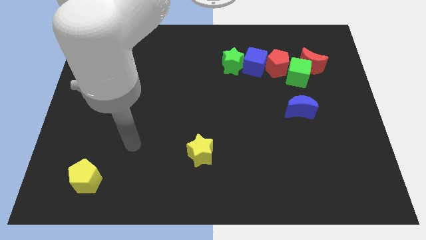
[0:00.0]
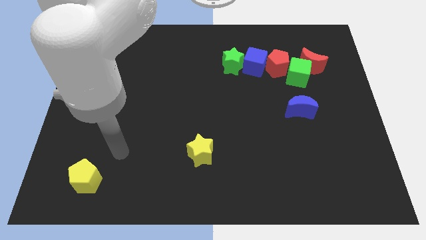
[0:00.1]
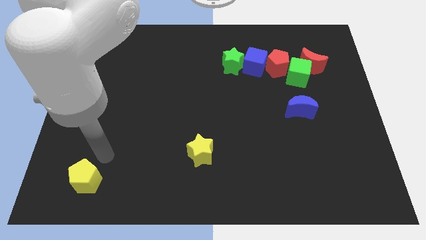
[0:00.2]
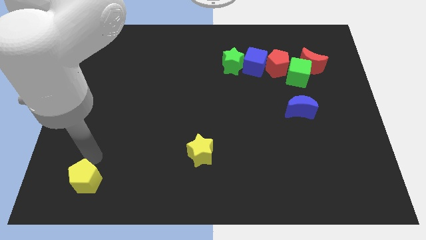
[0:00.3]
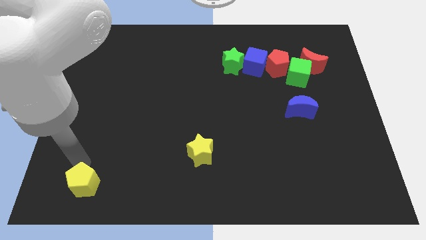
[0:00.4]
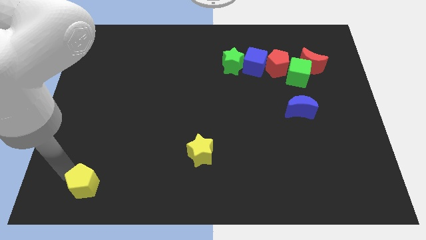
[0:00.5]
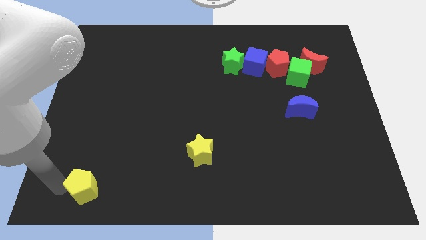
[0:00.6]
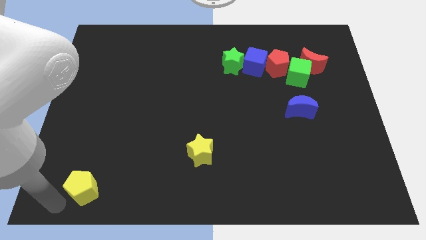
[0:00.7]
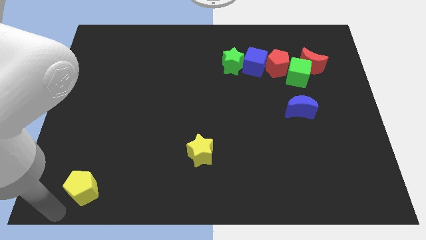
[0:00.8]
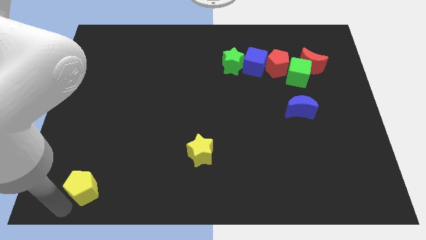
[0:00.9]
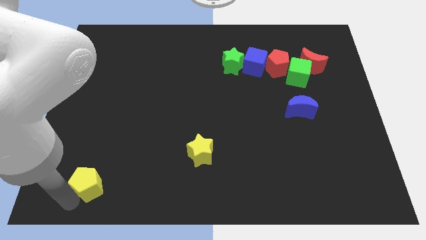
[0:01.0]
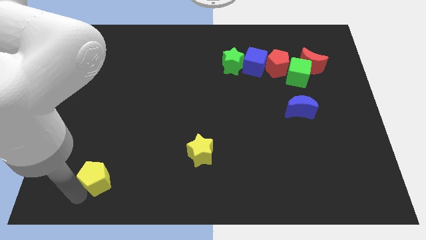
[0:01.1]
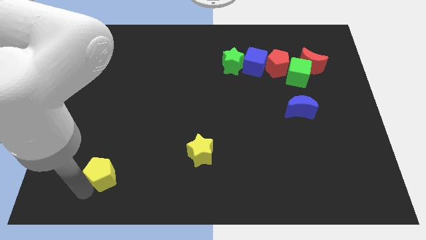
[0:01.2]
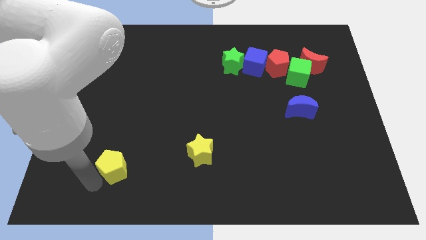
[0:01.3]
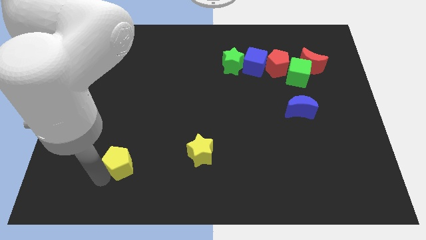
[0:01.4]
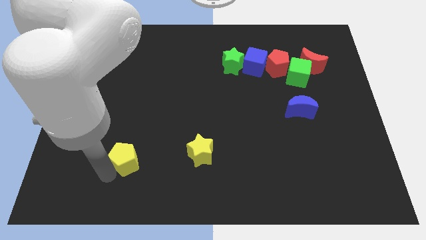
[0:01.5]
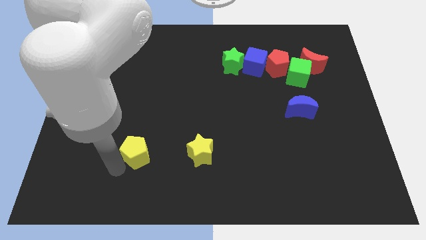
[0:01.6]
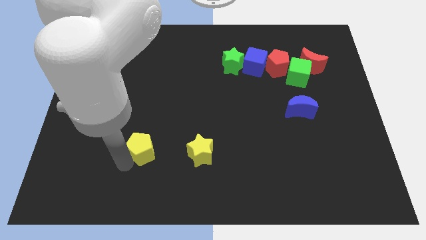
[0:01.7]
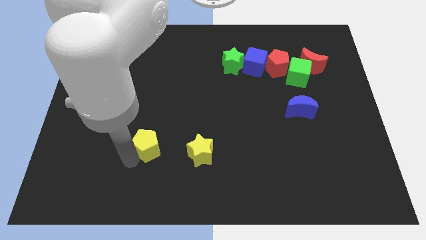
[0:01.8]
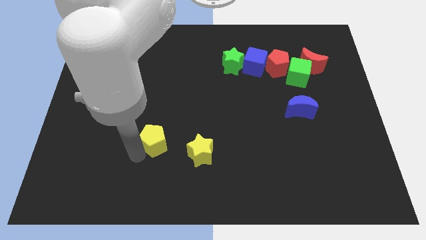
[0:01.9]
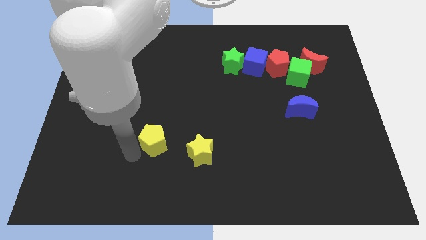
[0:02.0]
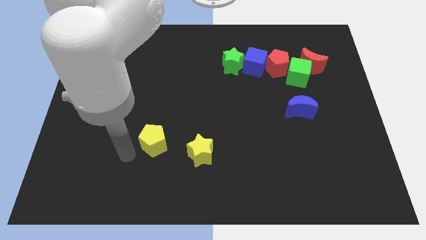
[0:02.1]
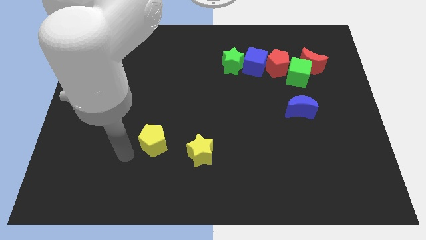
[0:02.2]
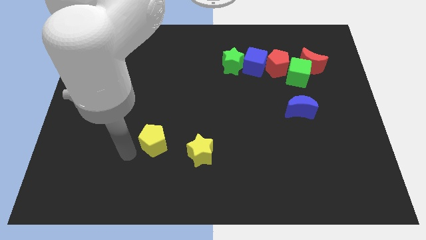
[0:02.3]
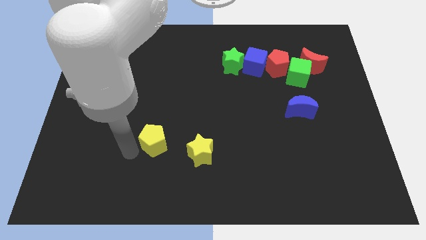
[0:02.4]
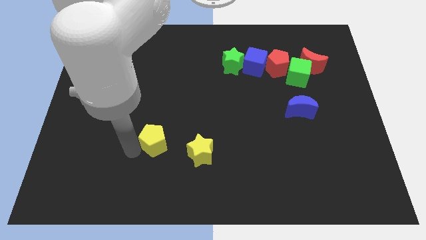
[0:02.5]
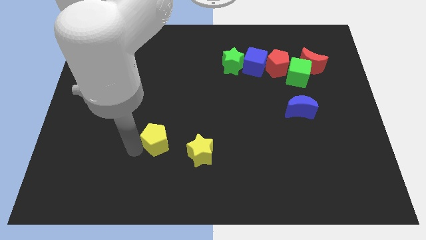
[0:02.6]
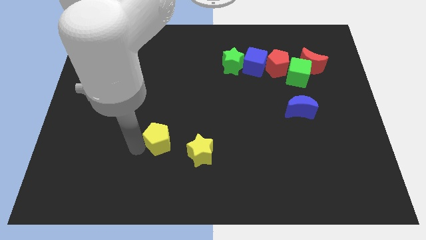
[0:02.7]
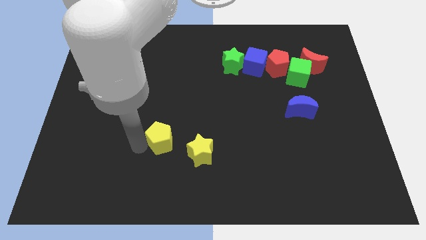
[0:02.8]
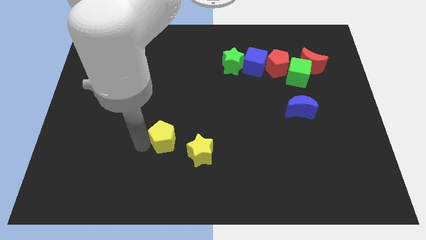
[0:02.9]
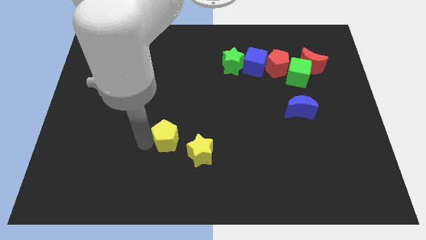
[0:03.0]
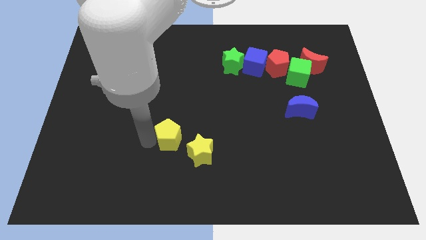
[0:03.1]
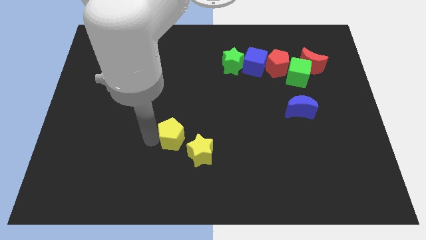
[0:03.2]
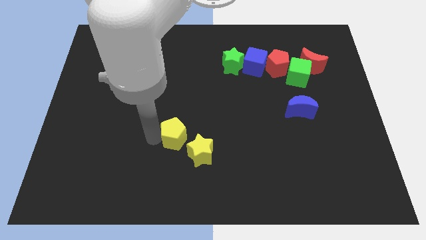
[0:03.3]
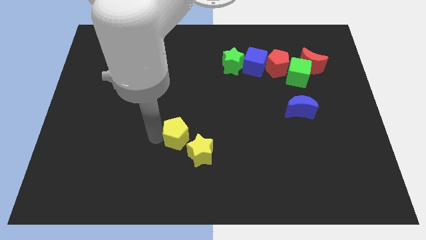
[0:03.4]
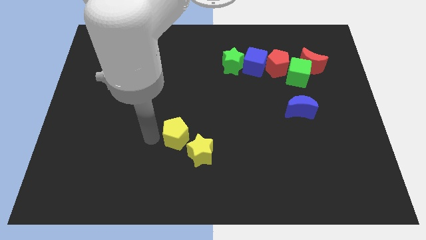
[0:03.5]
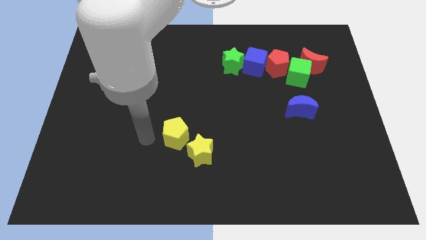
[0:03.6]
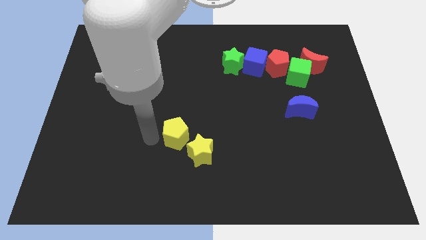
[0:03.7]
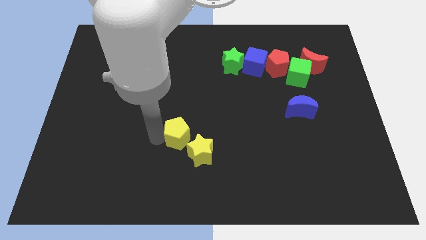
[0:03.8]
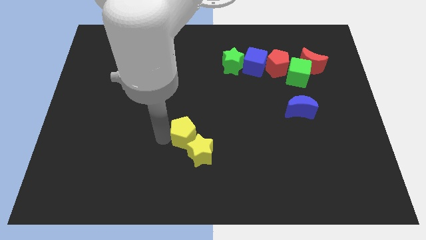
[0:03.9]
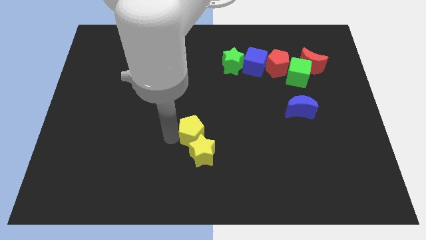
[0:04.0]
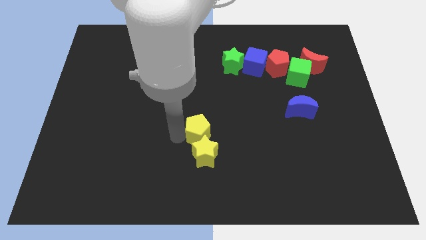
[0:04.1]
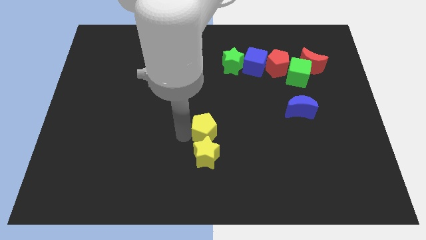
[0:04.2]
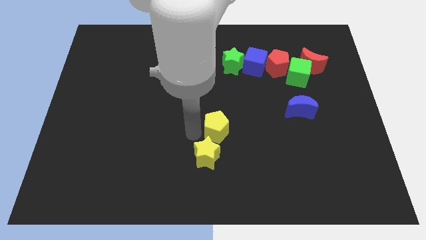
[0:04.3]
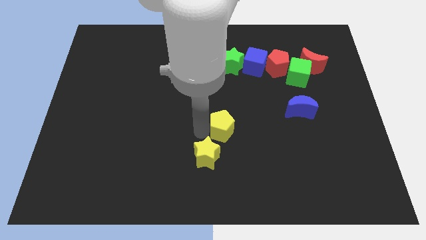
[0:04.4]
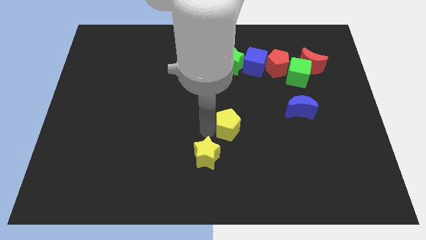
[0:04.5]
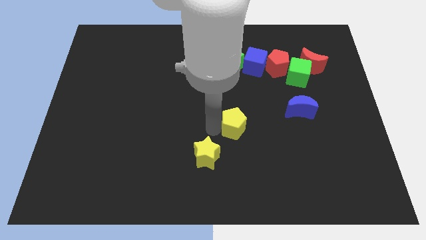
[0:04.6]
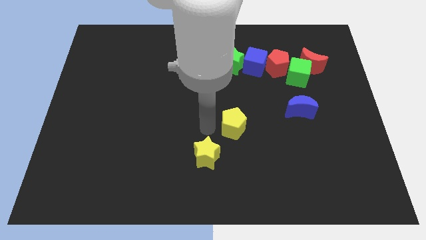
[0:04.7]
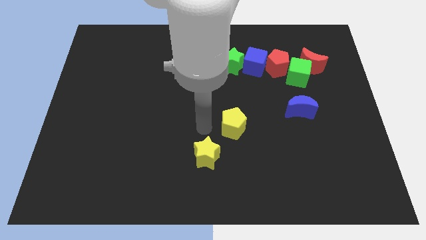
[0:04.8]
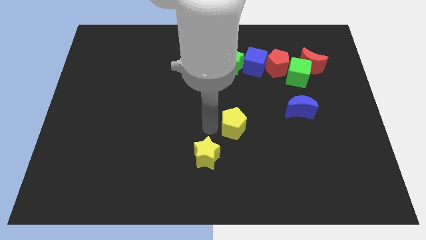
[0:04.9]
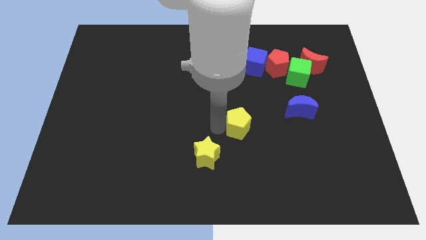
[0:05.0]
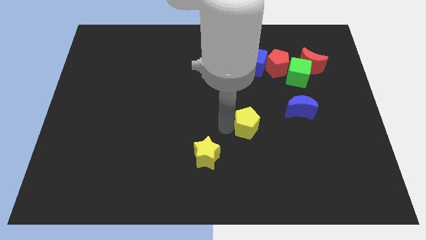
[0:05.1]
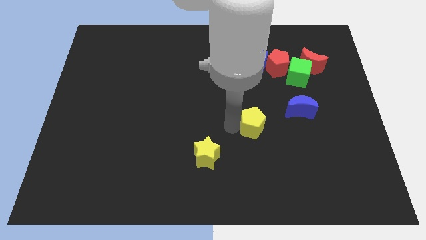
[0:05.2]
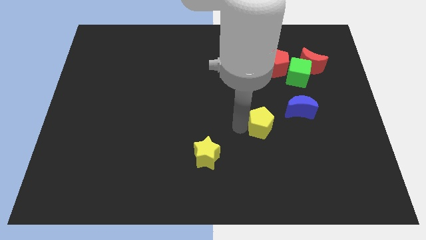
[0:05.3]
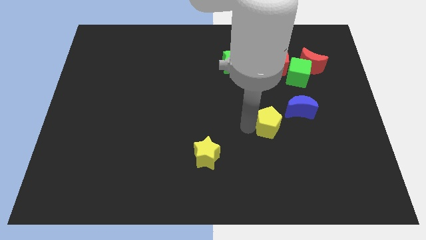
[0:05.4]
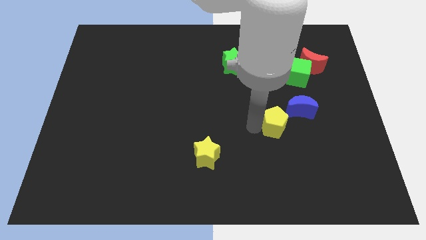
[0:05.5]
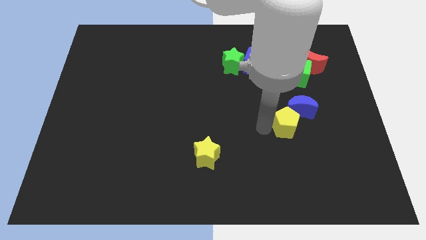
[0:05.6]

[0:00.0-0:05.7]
put the yellow pentagon close to the blue moon

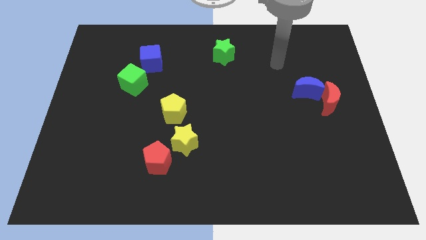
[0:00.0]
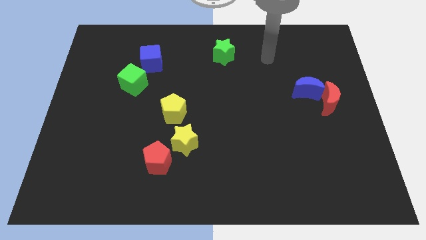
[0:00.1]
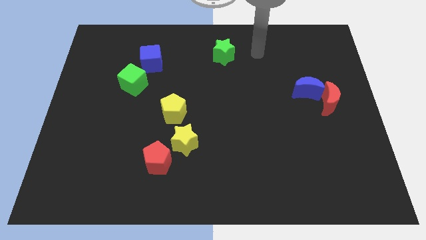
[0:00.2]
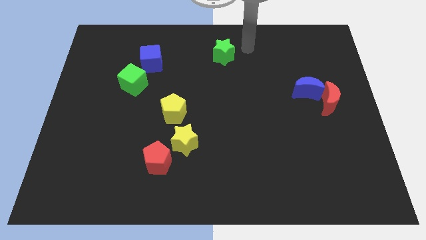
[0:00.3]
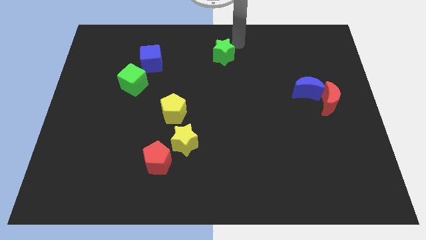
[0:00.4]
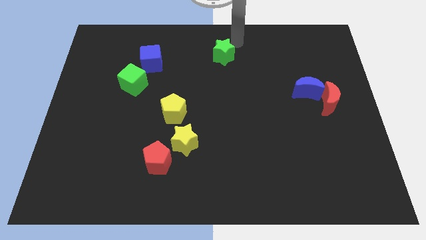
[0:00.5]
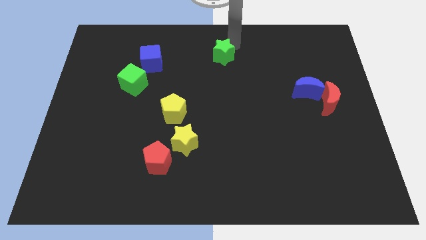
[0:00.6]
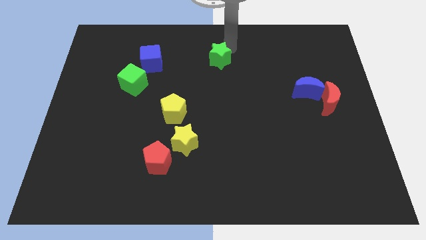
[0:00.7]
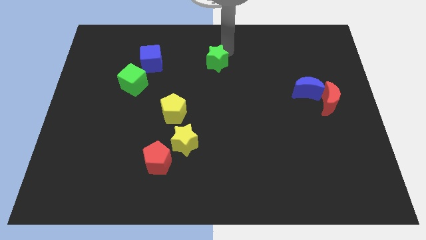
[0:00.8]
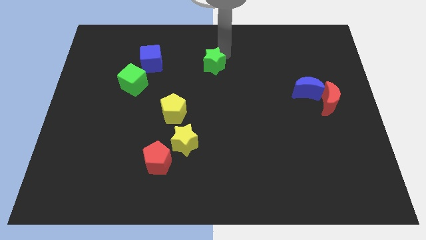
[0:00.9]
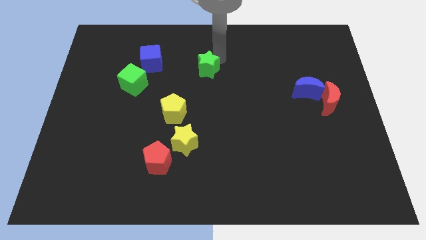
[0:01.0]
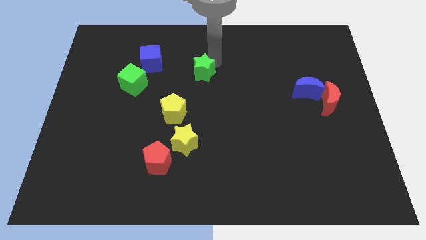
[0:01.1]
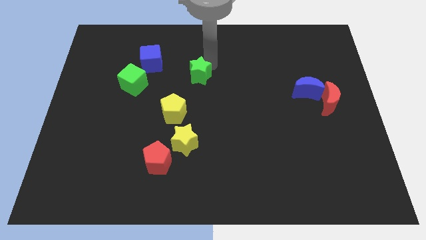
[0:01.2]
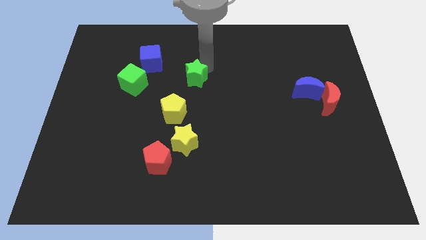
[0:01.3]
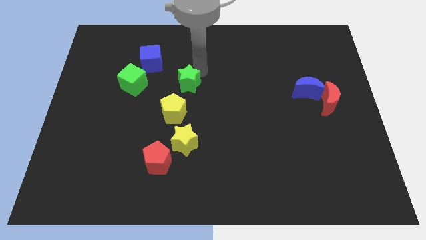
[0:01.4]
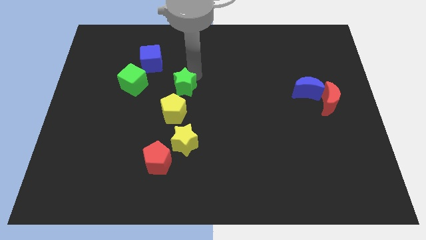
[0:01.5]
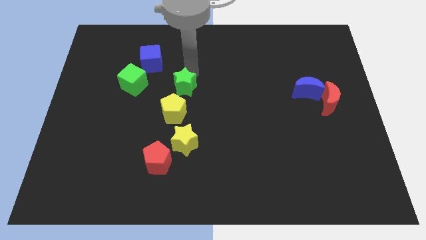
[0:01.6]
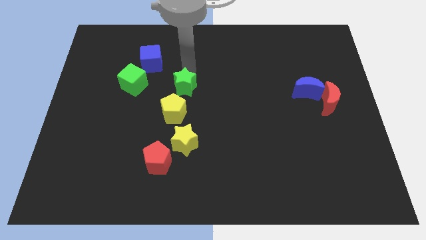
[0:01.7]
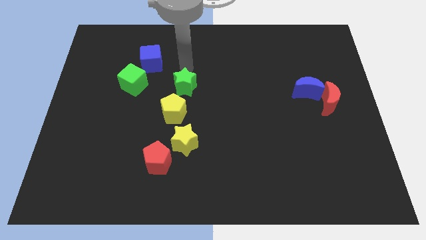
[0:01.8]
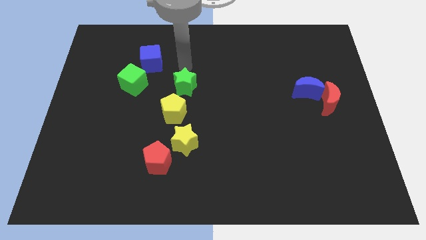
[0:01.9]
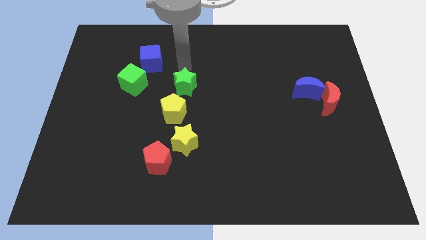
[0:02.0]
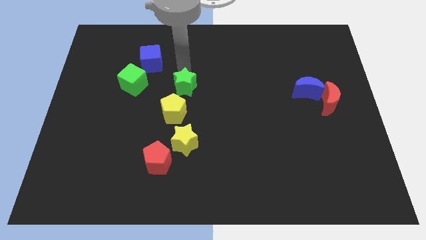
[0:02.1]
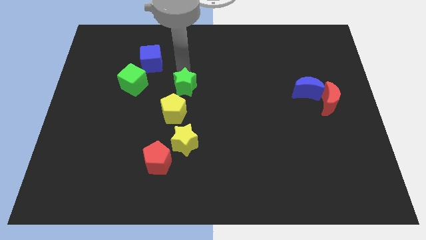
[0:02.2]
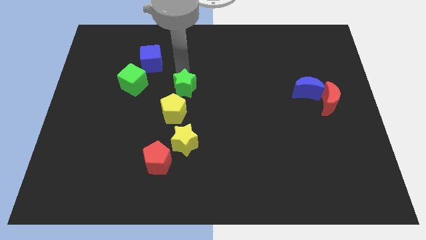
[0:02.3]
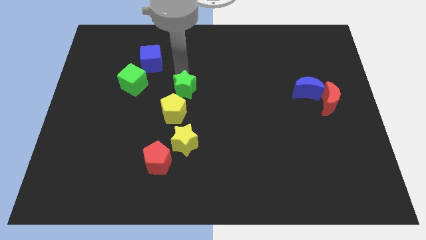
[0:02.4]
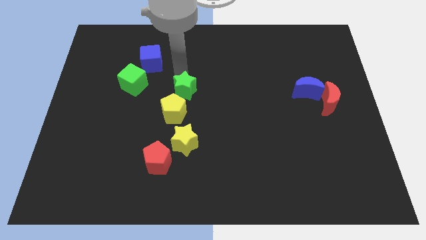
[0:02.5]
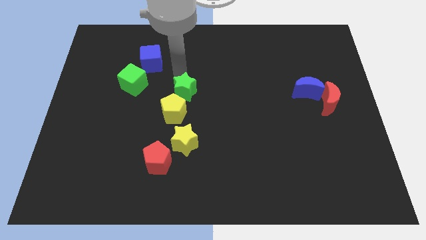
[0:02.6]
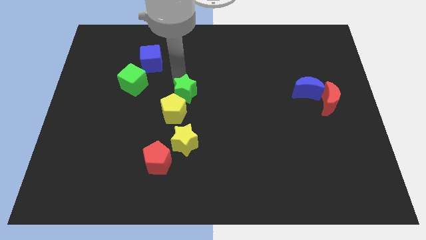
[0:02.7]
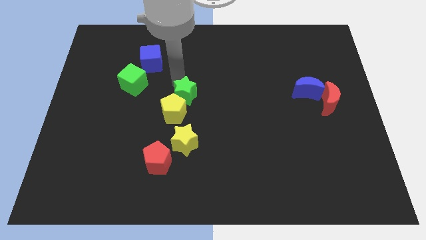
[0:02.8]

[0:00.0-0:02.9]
move the green star next to the yellow pentagon
